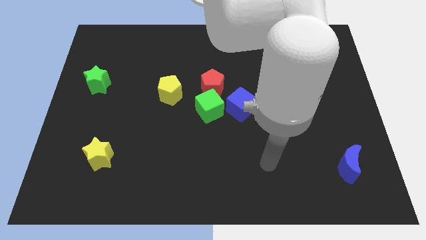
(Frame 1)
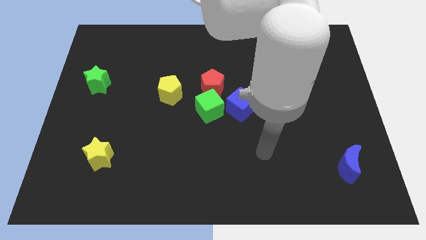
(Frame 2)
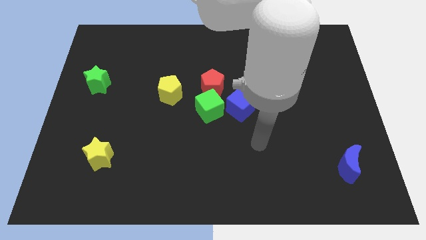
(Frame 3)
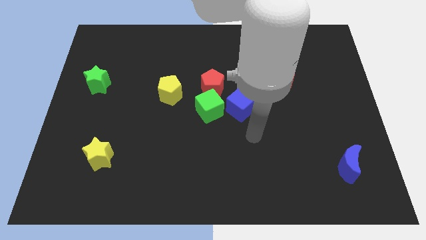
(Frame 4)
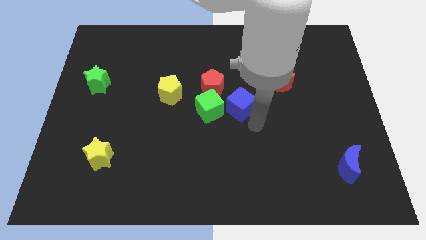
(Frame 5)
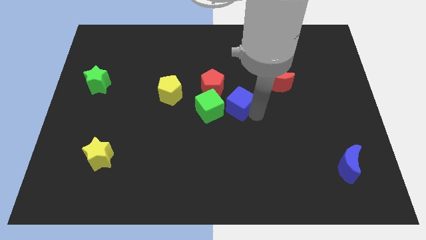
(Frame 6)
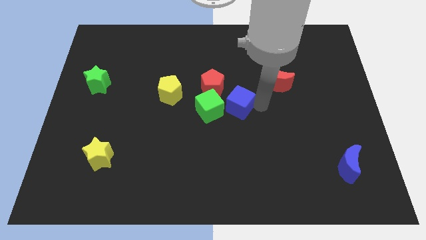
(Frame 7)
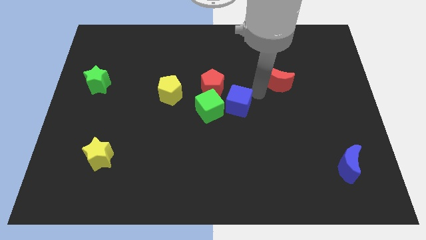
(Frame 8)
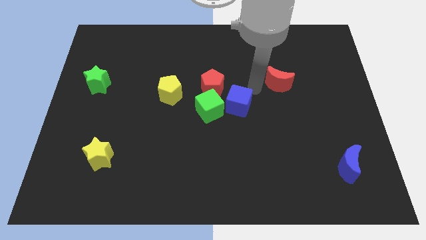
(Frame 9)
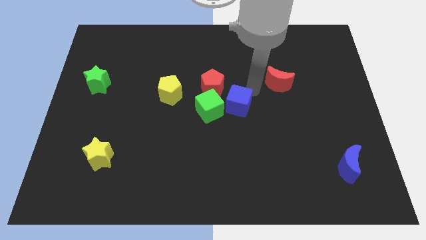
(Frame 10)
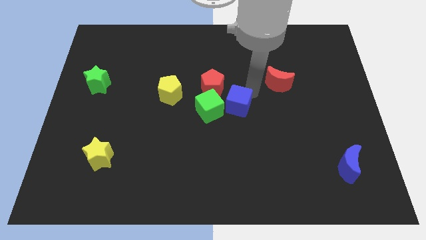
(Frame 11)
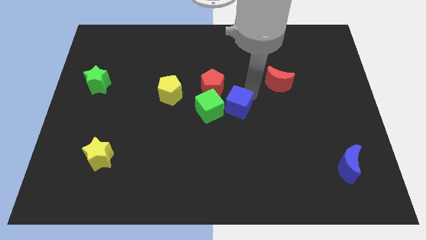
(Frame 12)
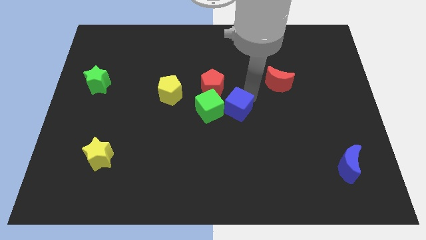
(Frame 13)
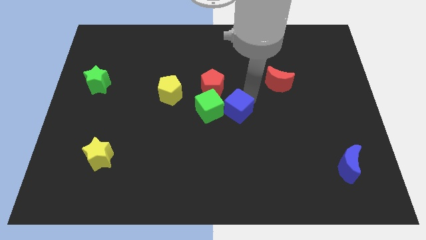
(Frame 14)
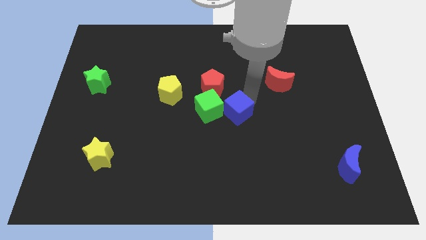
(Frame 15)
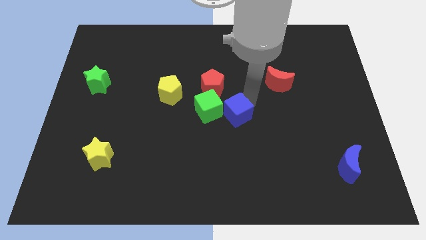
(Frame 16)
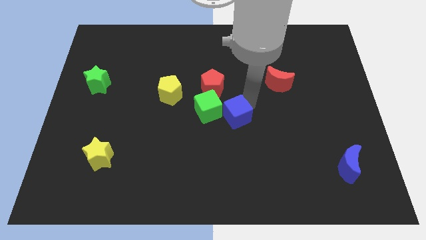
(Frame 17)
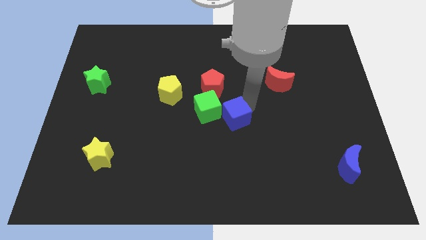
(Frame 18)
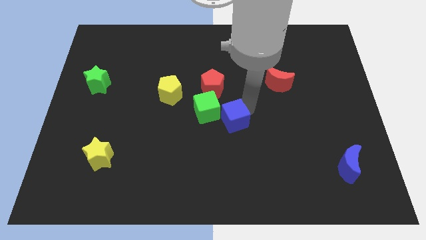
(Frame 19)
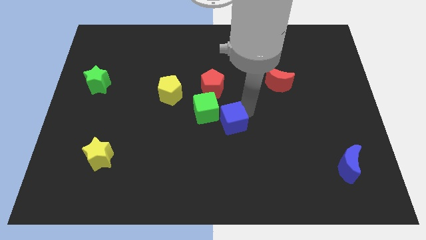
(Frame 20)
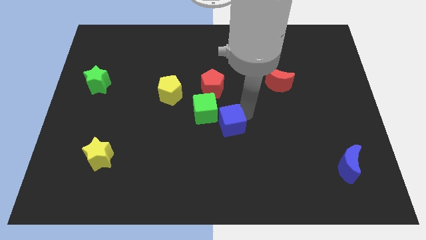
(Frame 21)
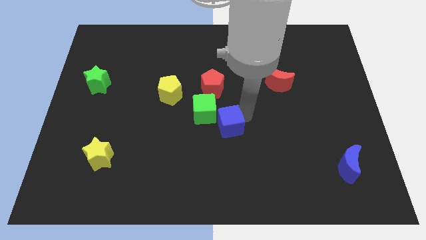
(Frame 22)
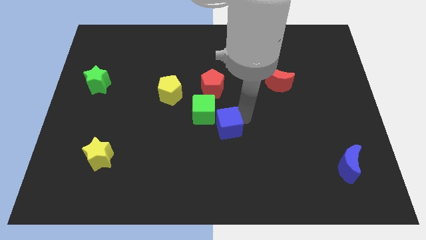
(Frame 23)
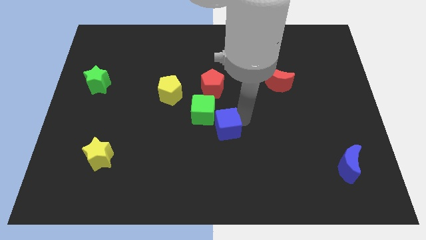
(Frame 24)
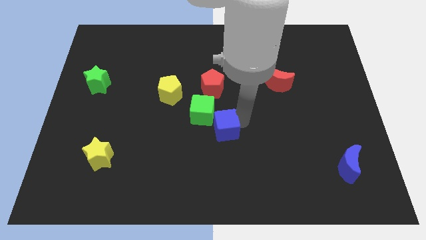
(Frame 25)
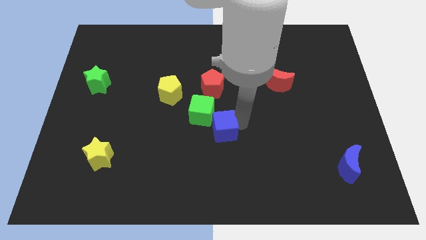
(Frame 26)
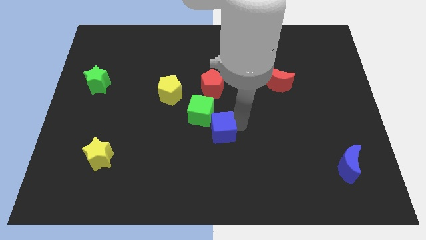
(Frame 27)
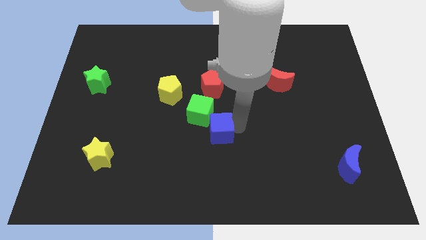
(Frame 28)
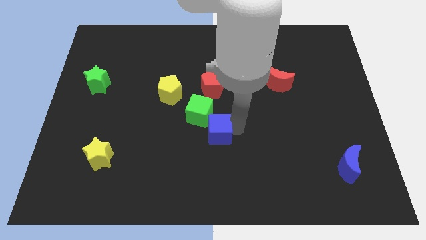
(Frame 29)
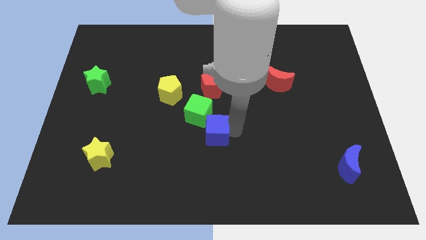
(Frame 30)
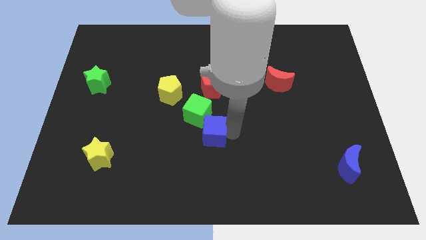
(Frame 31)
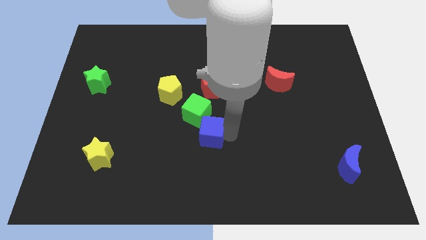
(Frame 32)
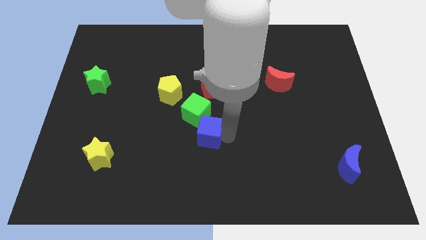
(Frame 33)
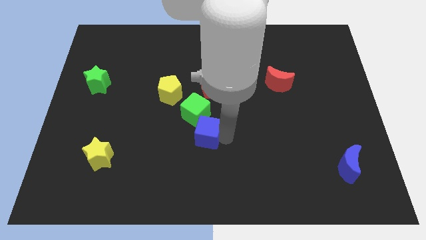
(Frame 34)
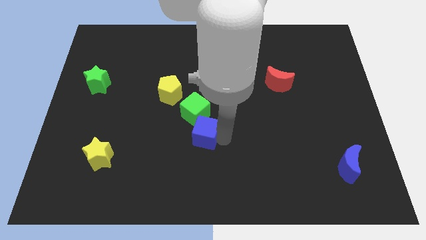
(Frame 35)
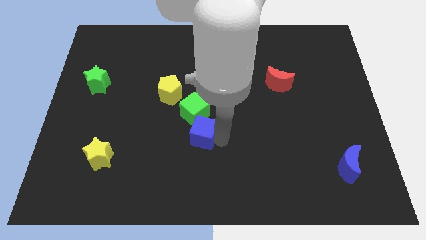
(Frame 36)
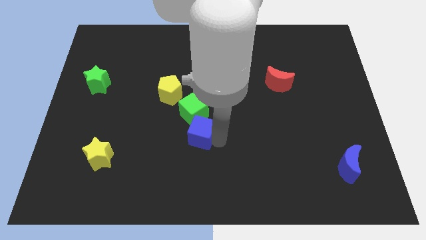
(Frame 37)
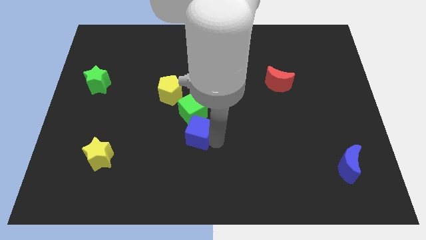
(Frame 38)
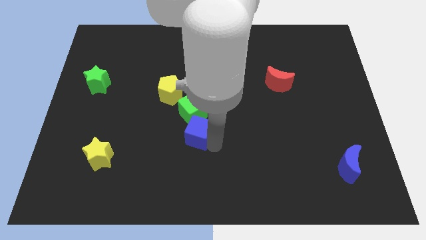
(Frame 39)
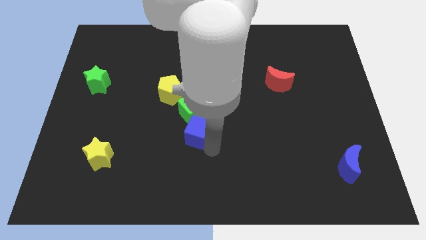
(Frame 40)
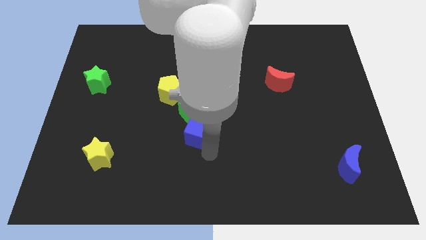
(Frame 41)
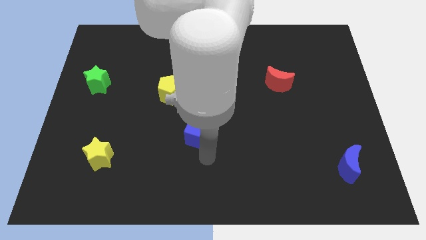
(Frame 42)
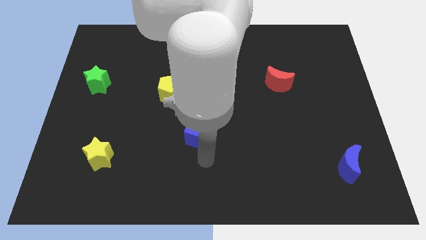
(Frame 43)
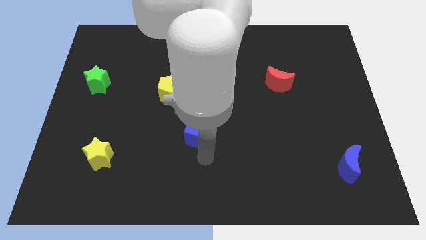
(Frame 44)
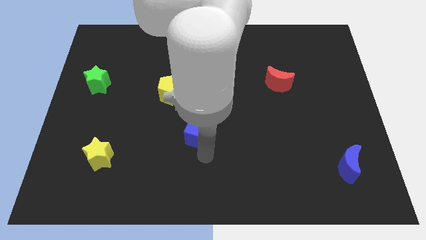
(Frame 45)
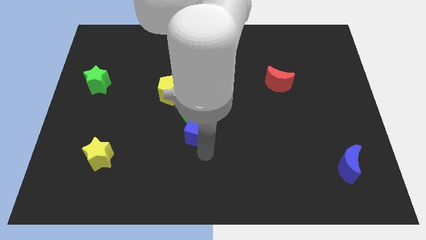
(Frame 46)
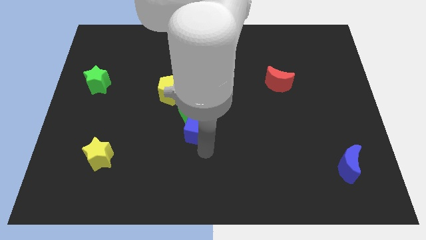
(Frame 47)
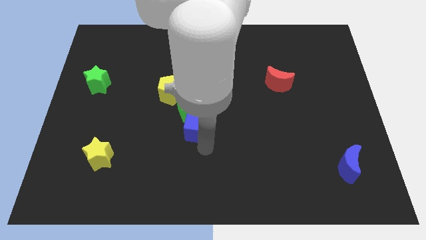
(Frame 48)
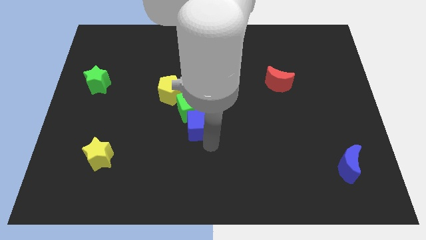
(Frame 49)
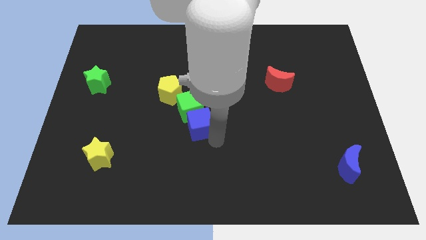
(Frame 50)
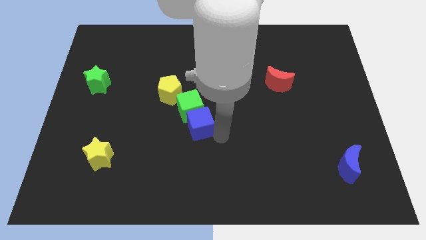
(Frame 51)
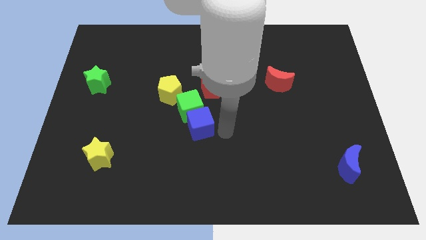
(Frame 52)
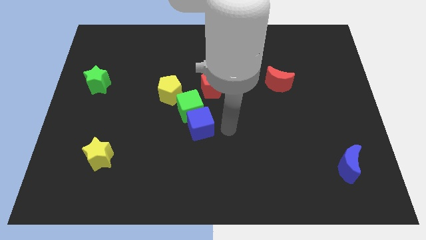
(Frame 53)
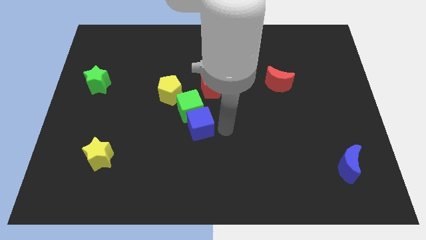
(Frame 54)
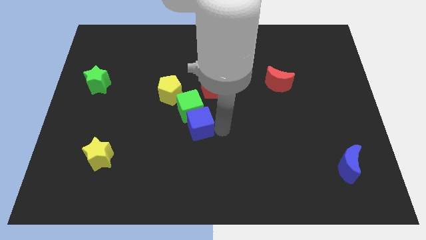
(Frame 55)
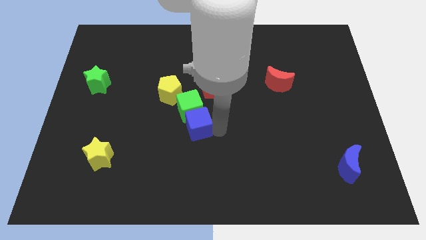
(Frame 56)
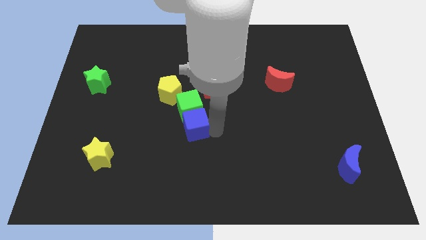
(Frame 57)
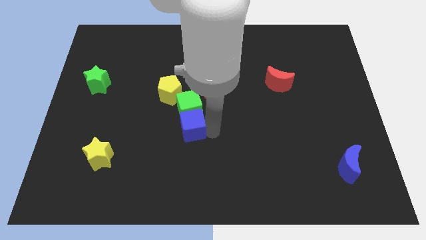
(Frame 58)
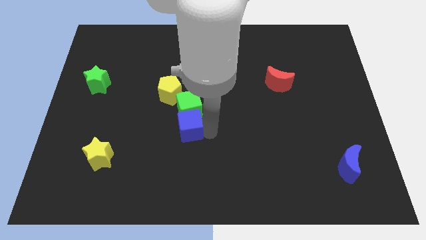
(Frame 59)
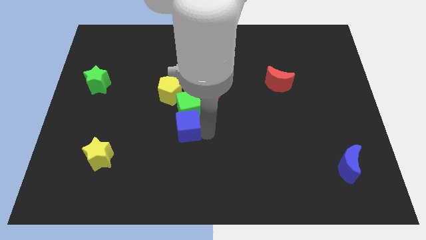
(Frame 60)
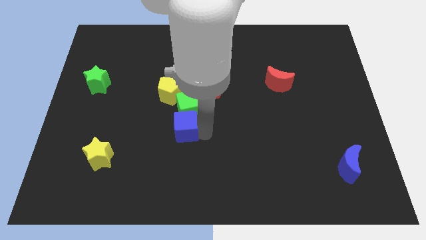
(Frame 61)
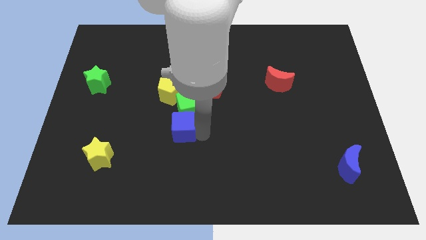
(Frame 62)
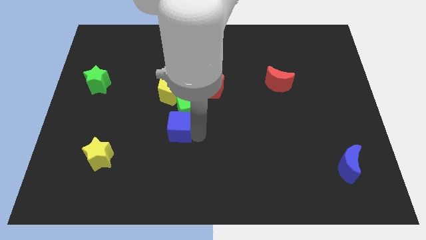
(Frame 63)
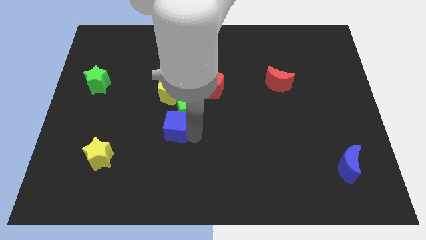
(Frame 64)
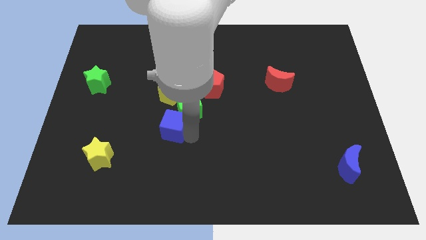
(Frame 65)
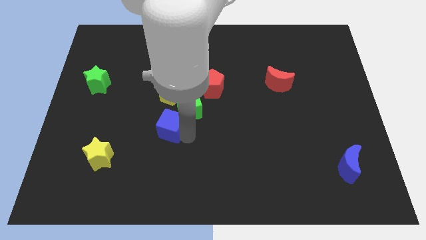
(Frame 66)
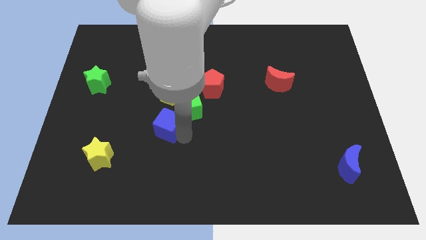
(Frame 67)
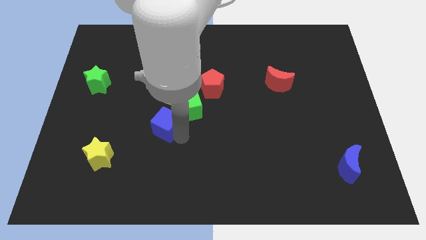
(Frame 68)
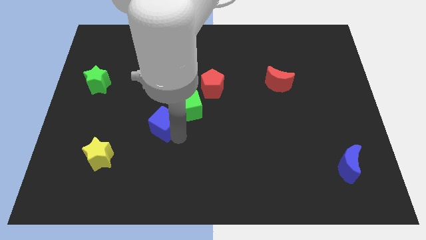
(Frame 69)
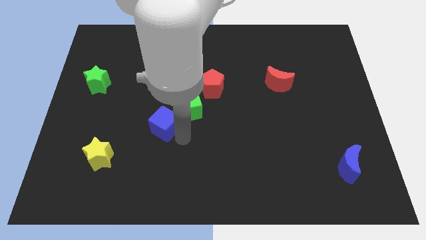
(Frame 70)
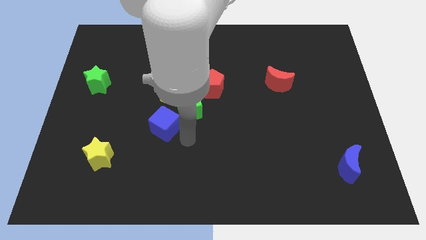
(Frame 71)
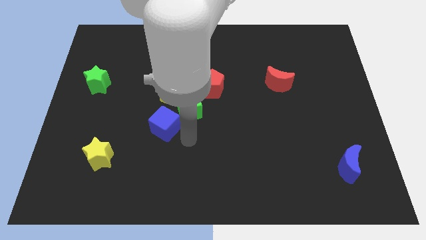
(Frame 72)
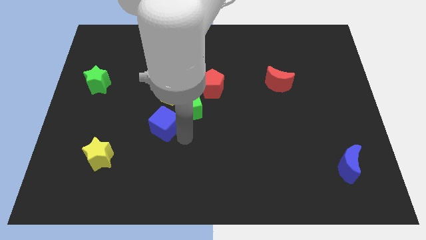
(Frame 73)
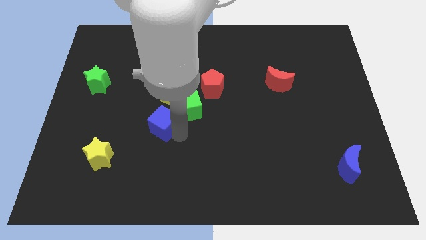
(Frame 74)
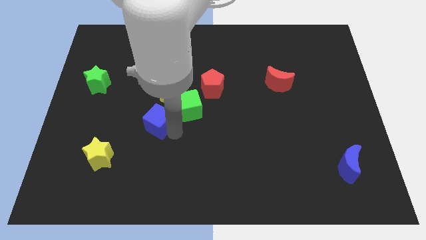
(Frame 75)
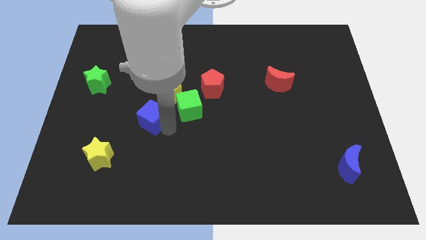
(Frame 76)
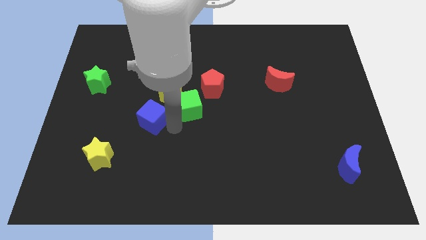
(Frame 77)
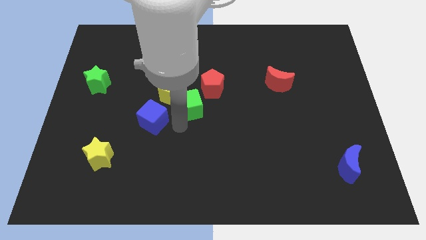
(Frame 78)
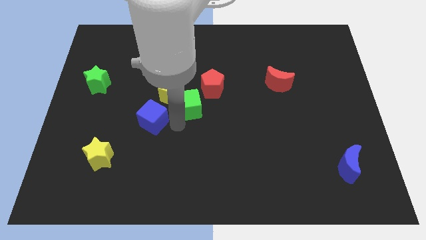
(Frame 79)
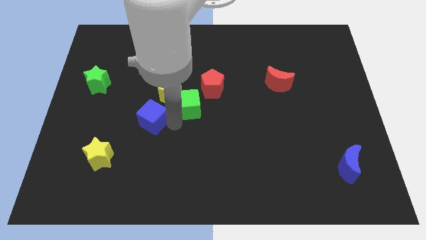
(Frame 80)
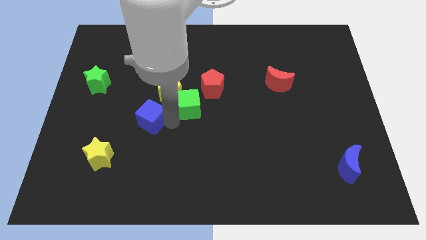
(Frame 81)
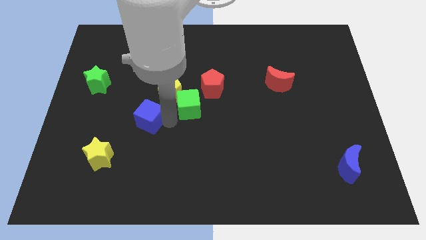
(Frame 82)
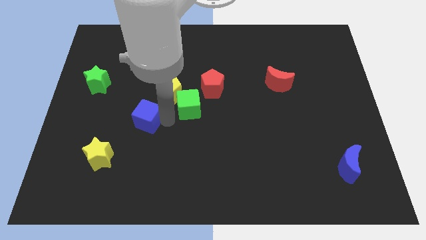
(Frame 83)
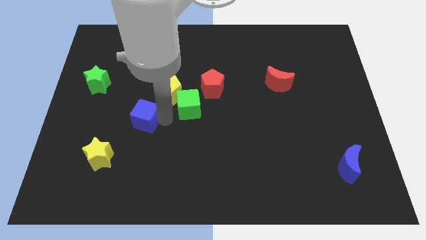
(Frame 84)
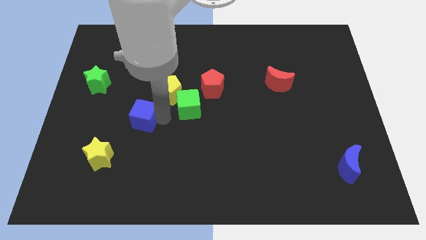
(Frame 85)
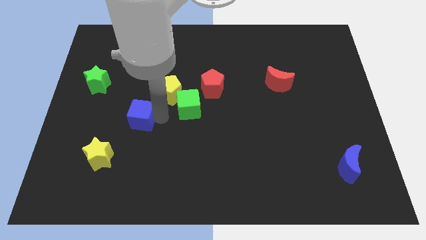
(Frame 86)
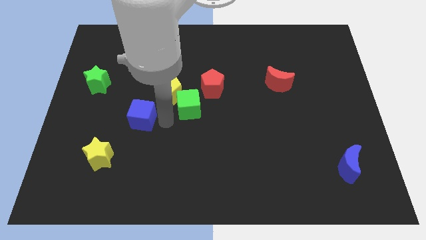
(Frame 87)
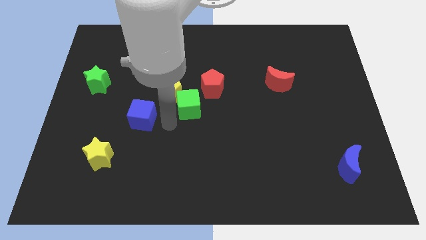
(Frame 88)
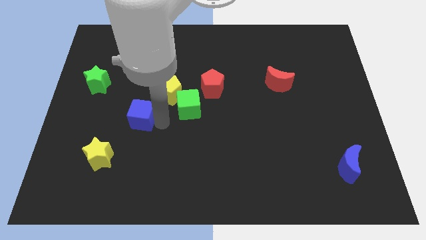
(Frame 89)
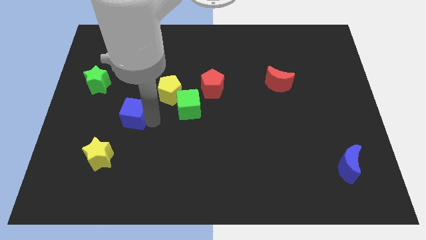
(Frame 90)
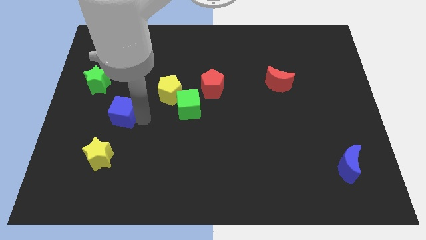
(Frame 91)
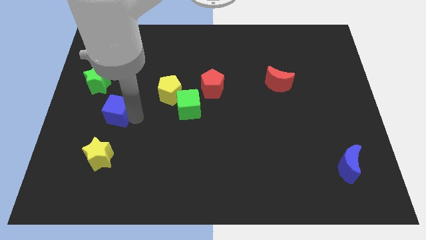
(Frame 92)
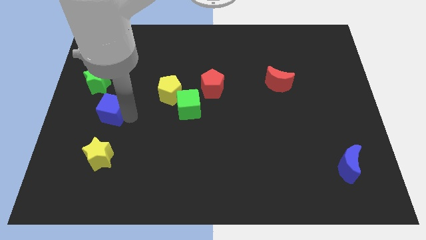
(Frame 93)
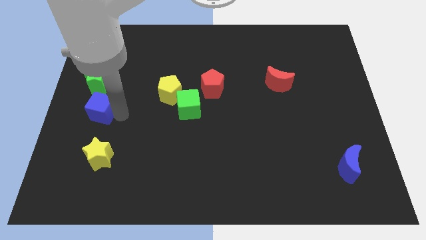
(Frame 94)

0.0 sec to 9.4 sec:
put the blue cube to the left side of the board
